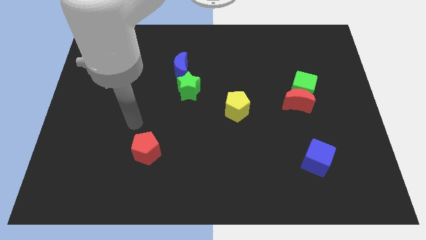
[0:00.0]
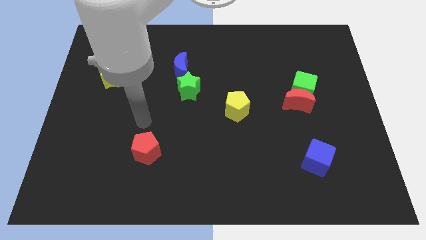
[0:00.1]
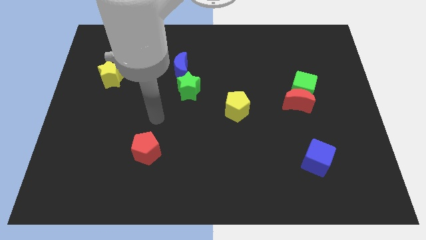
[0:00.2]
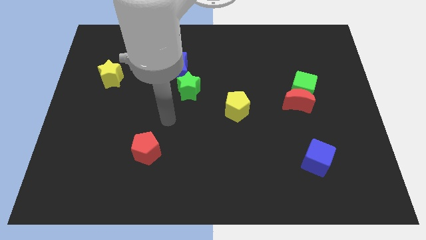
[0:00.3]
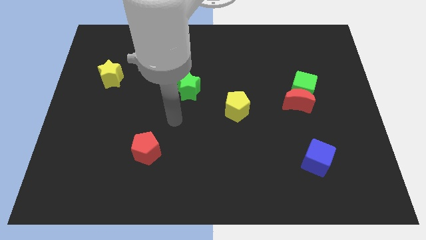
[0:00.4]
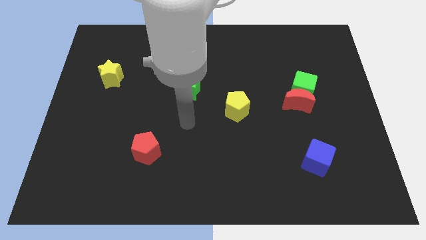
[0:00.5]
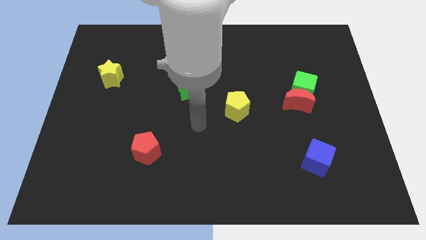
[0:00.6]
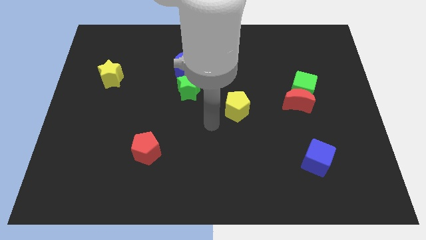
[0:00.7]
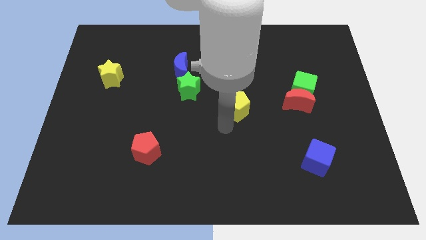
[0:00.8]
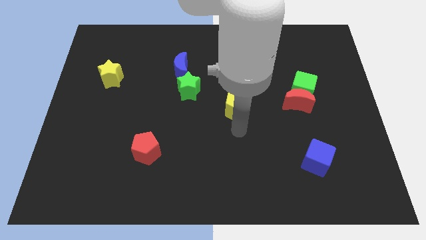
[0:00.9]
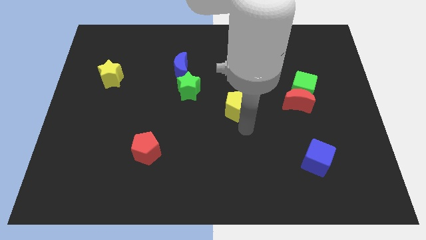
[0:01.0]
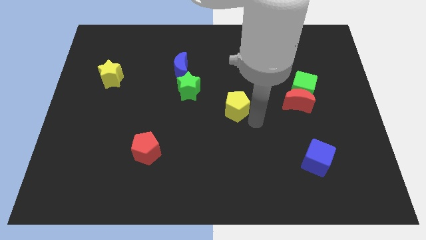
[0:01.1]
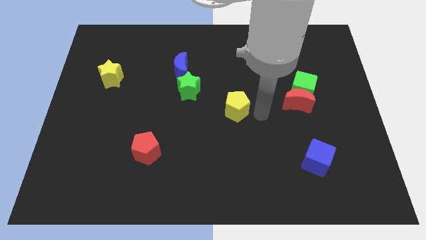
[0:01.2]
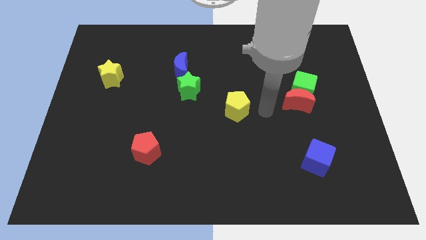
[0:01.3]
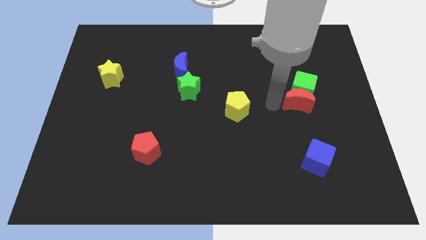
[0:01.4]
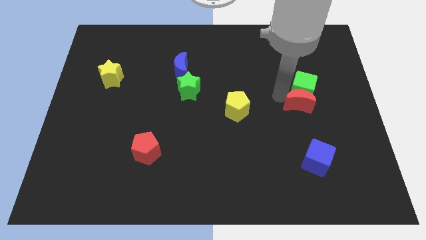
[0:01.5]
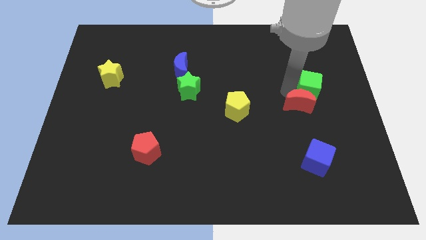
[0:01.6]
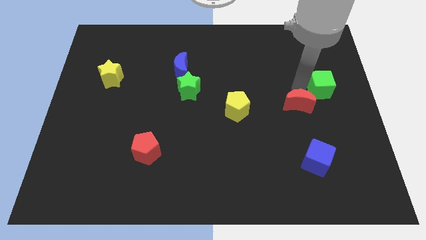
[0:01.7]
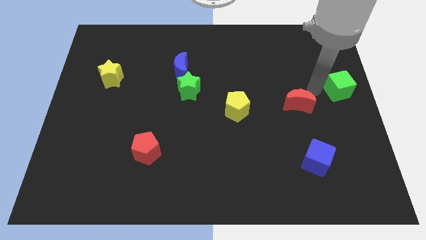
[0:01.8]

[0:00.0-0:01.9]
move the red moon away from the green cube

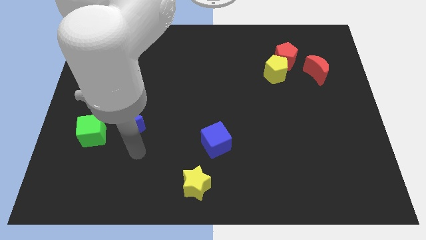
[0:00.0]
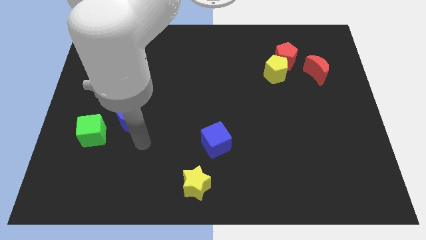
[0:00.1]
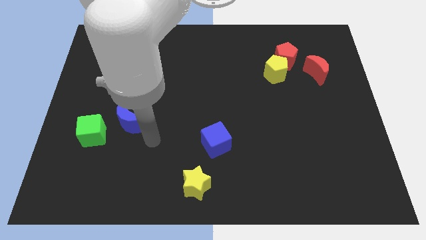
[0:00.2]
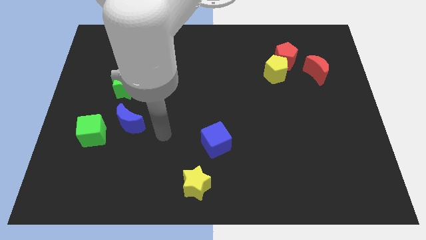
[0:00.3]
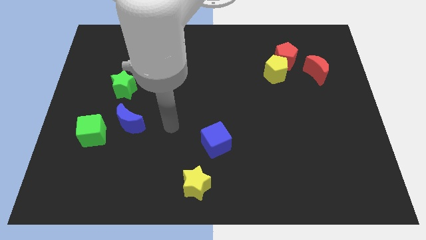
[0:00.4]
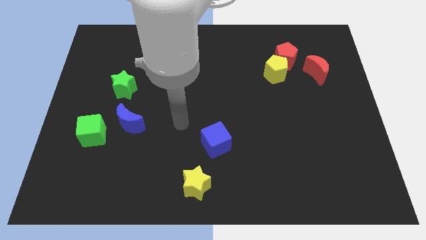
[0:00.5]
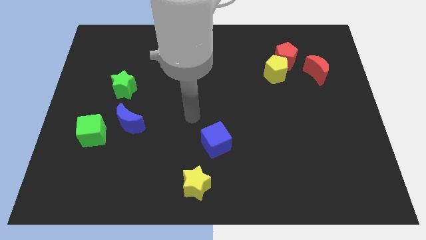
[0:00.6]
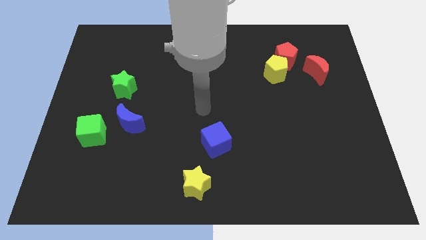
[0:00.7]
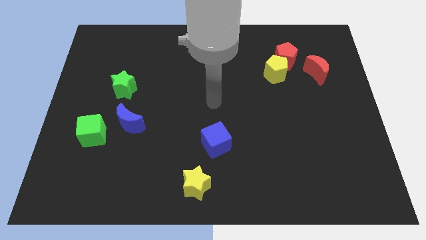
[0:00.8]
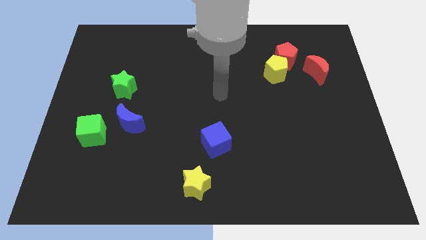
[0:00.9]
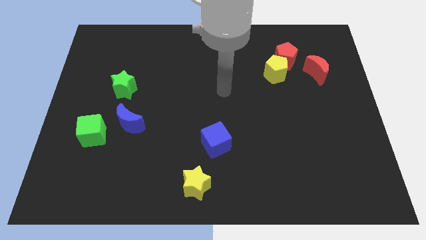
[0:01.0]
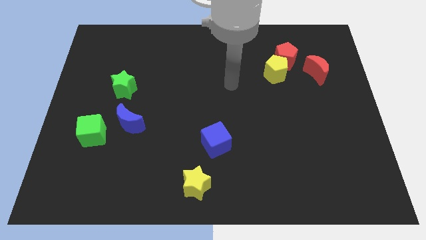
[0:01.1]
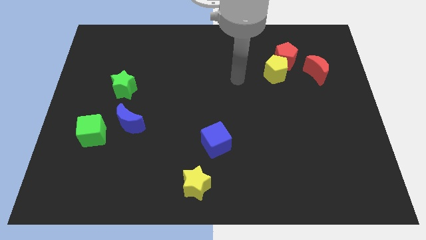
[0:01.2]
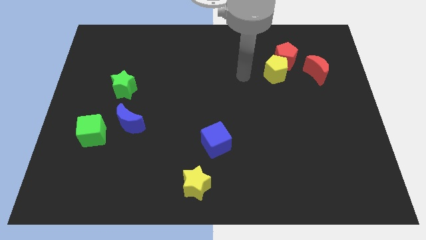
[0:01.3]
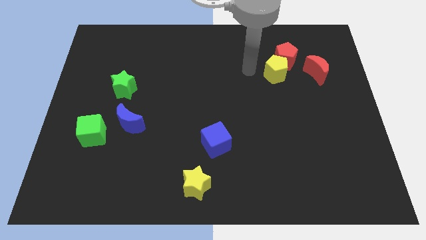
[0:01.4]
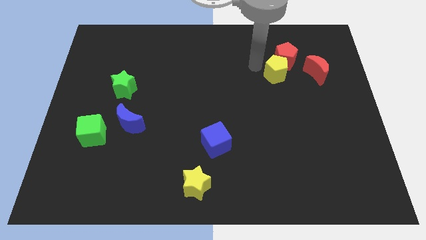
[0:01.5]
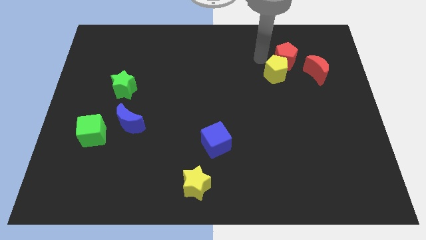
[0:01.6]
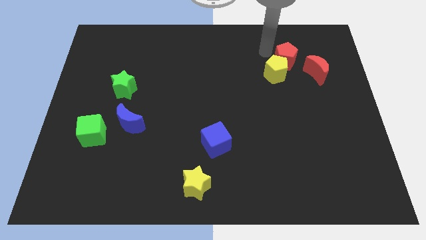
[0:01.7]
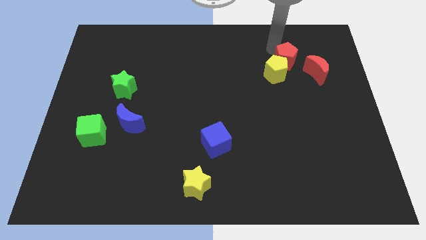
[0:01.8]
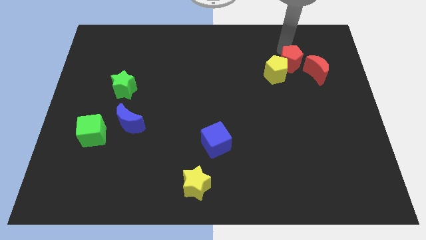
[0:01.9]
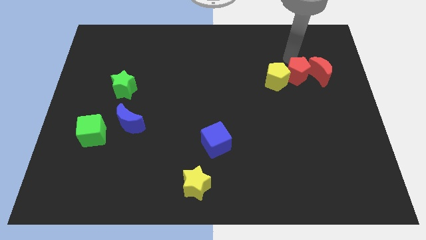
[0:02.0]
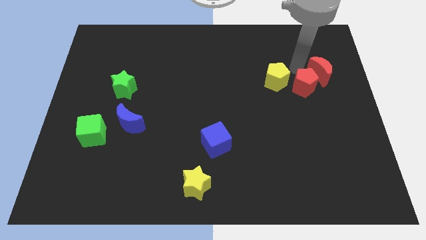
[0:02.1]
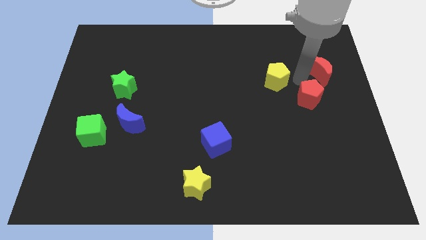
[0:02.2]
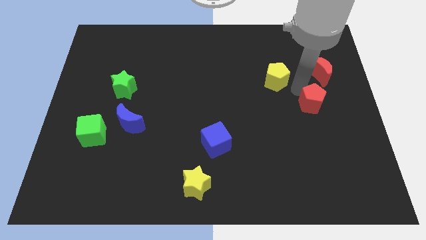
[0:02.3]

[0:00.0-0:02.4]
pull the yellow pentagon apart from the red pentagon

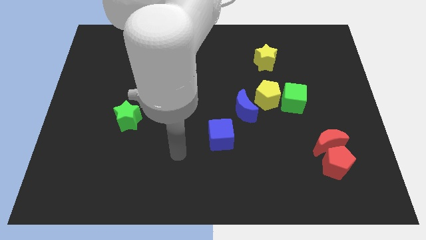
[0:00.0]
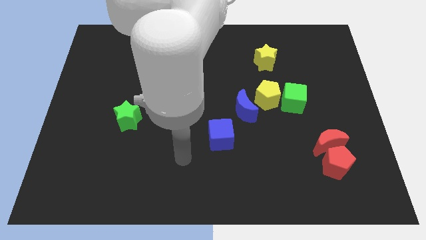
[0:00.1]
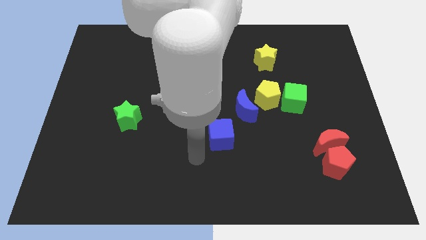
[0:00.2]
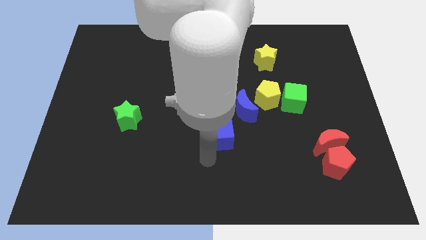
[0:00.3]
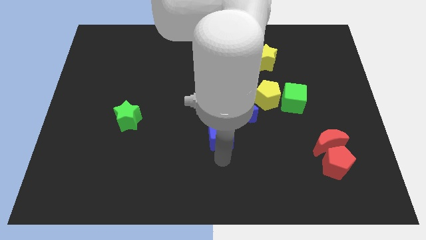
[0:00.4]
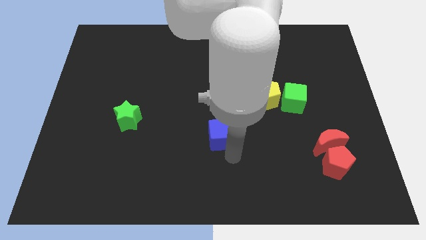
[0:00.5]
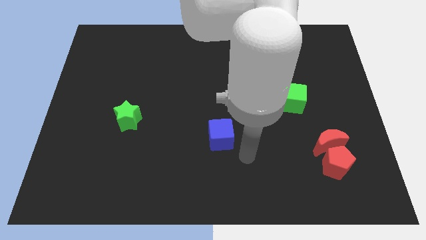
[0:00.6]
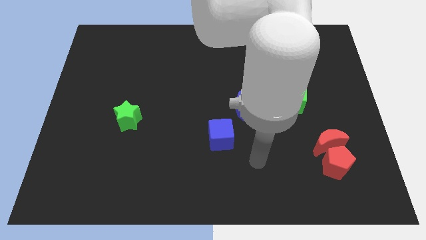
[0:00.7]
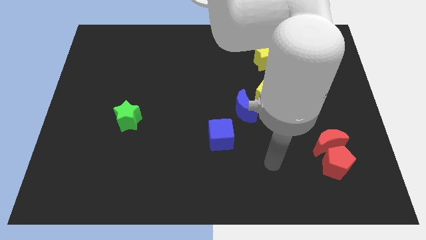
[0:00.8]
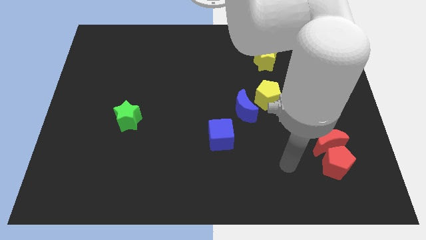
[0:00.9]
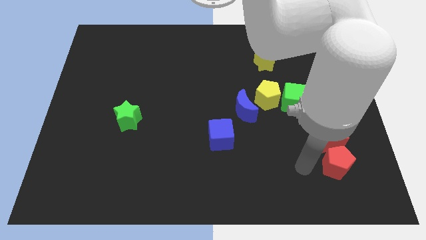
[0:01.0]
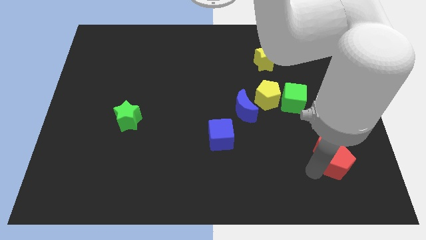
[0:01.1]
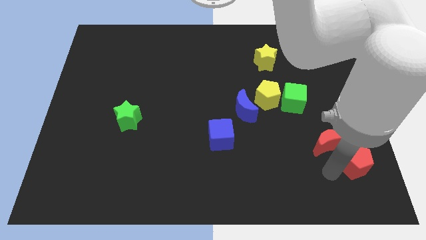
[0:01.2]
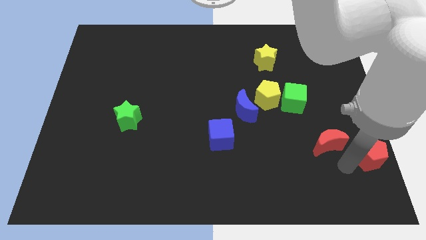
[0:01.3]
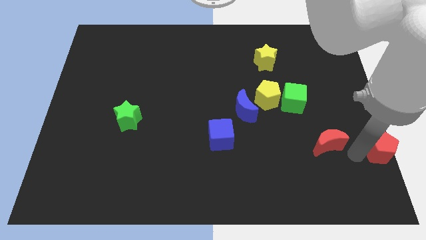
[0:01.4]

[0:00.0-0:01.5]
move the red moon away from the red pentagon

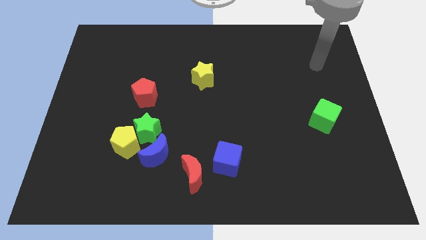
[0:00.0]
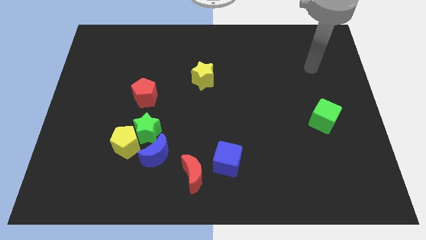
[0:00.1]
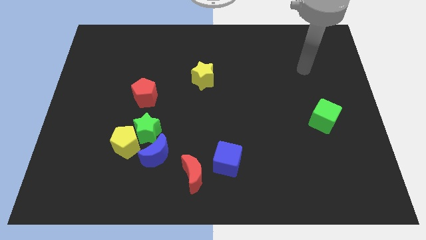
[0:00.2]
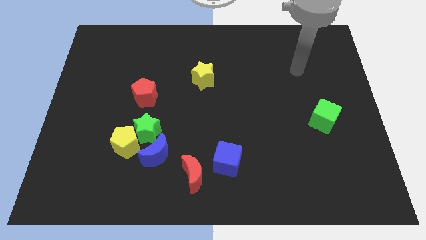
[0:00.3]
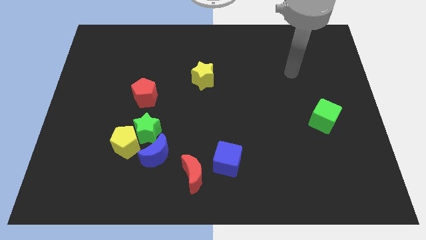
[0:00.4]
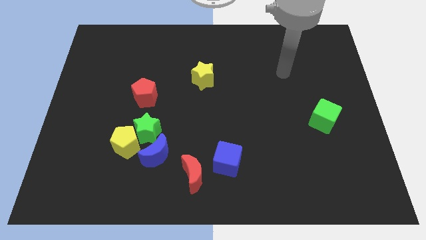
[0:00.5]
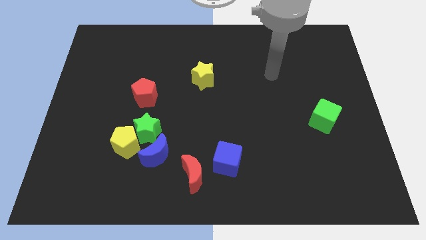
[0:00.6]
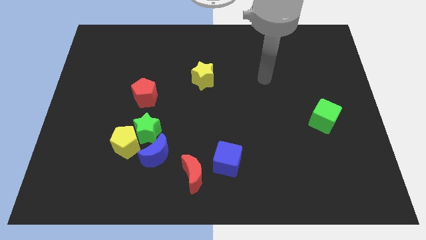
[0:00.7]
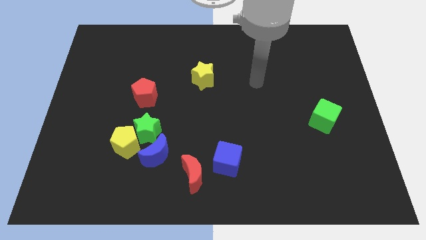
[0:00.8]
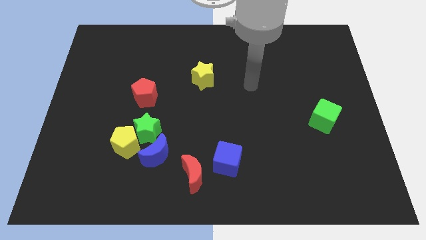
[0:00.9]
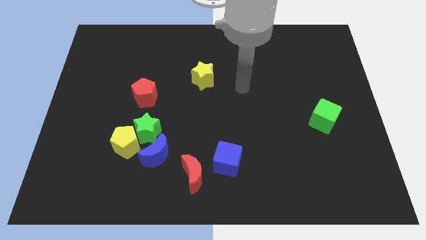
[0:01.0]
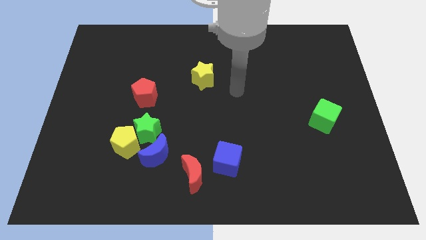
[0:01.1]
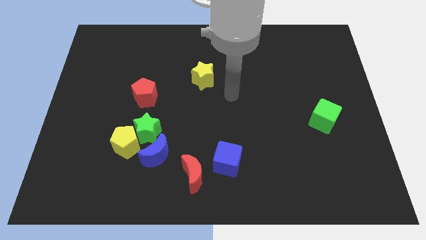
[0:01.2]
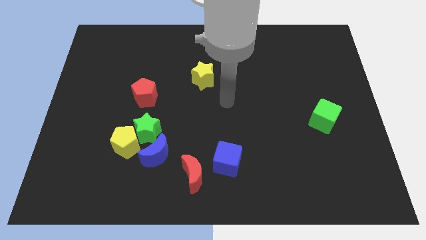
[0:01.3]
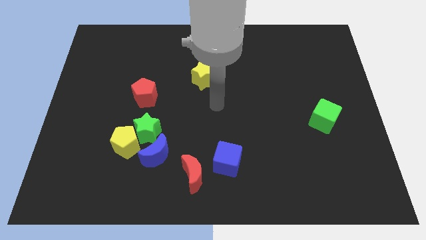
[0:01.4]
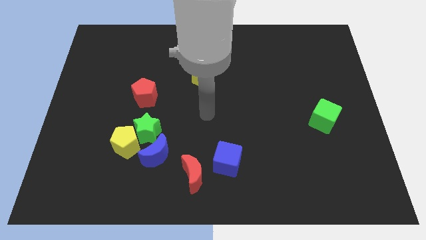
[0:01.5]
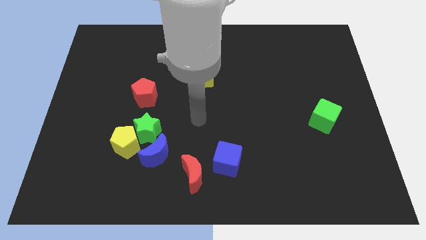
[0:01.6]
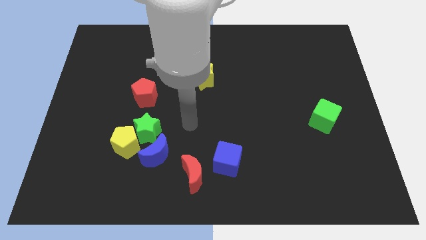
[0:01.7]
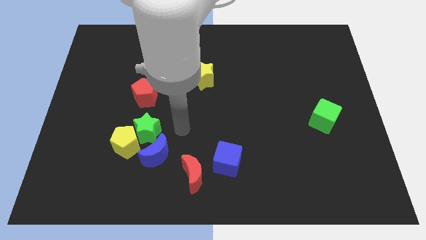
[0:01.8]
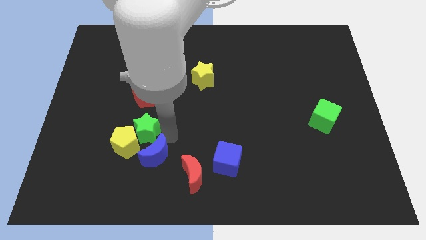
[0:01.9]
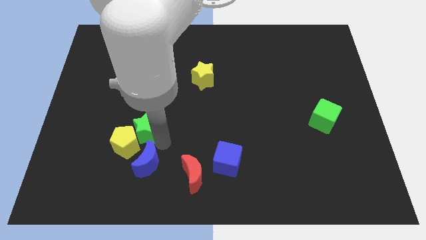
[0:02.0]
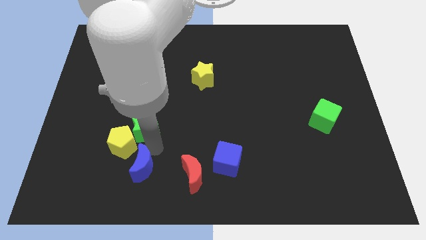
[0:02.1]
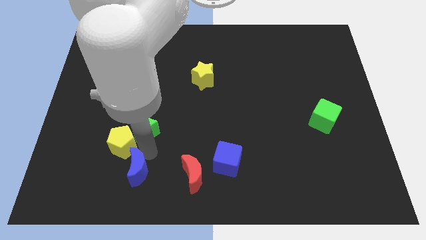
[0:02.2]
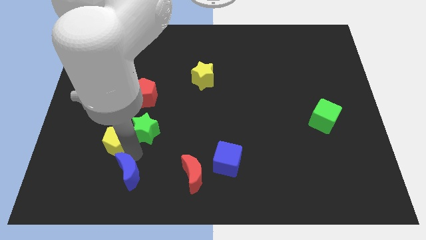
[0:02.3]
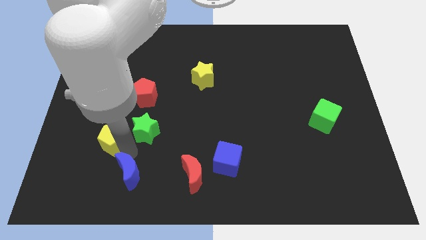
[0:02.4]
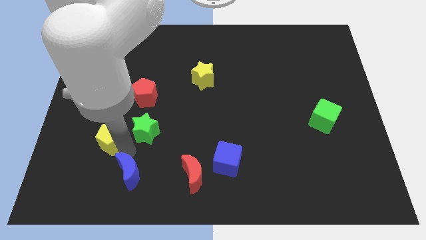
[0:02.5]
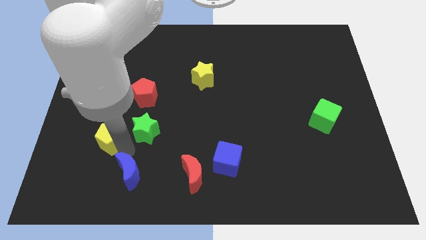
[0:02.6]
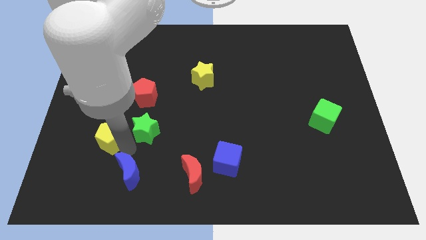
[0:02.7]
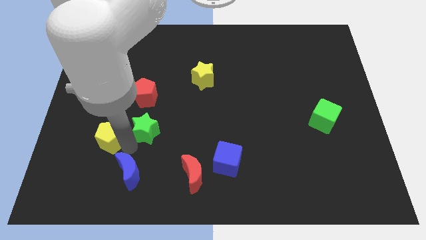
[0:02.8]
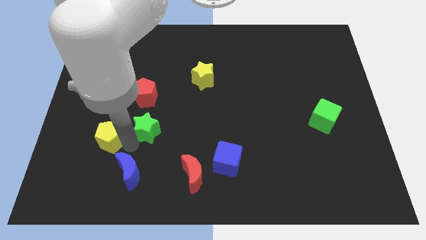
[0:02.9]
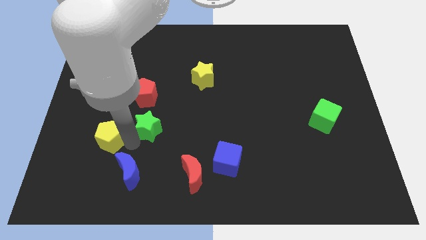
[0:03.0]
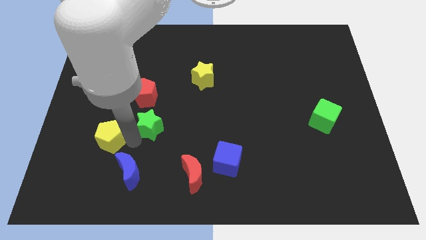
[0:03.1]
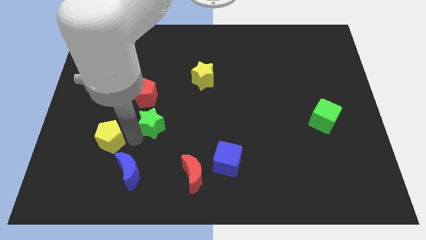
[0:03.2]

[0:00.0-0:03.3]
separate the green star from the yellow pentagon and blue moon

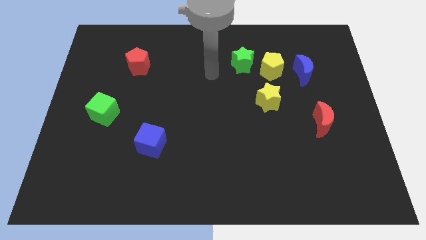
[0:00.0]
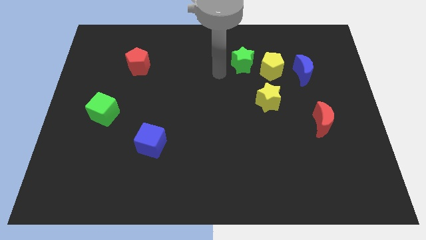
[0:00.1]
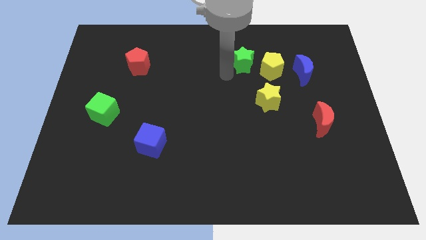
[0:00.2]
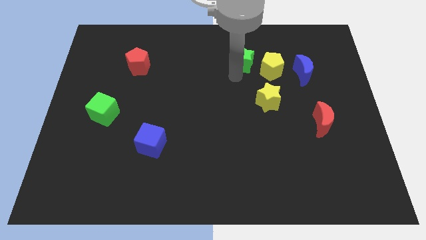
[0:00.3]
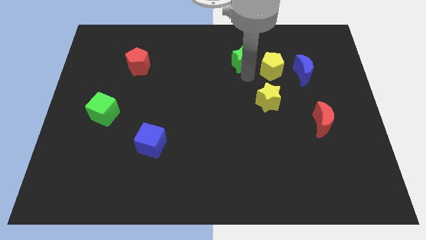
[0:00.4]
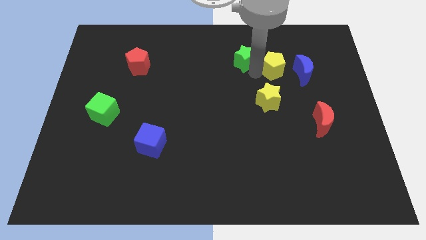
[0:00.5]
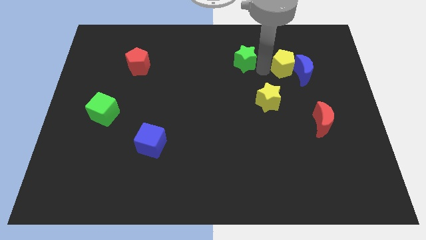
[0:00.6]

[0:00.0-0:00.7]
move the green star away from the yellow pentagon
